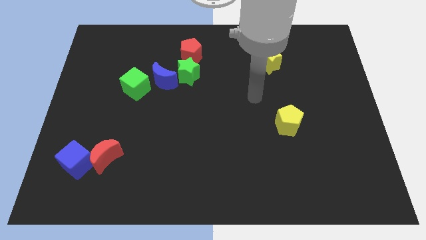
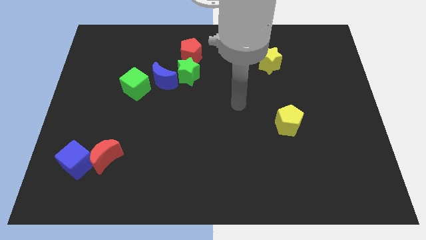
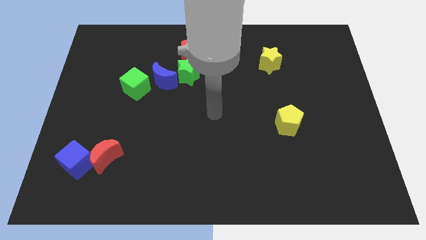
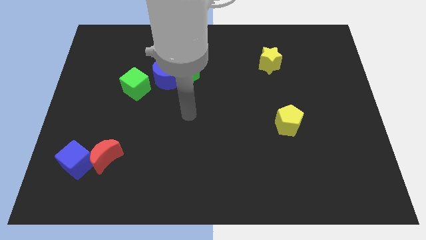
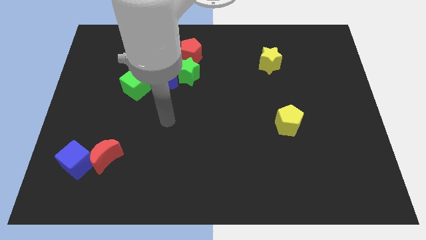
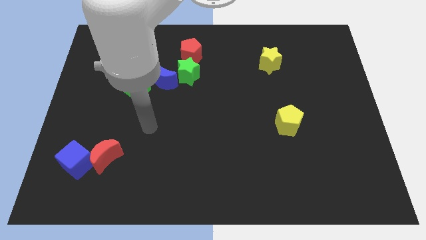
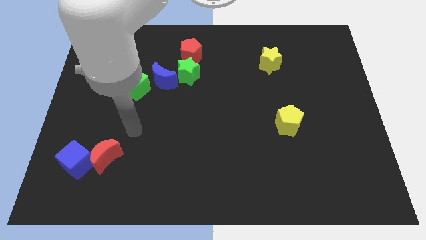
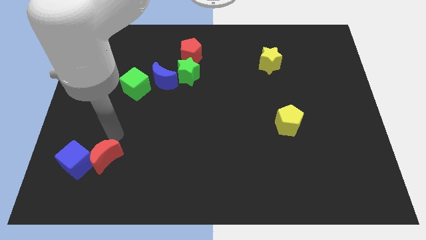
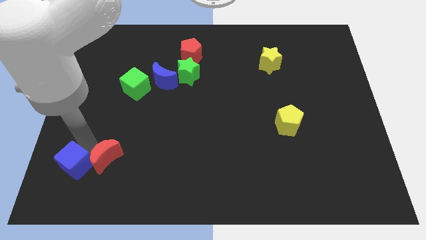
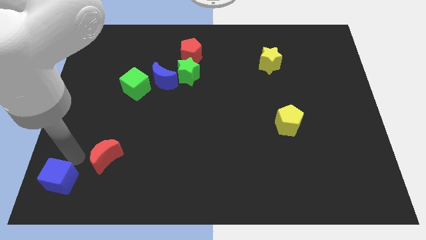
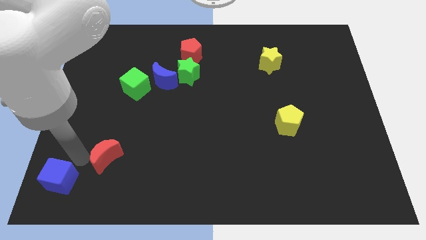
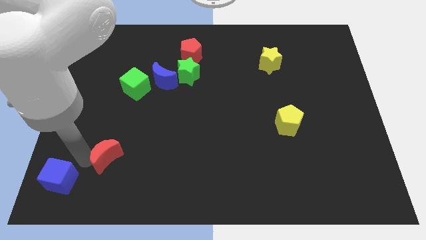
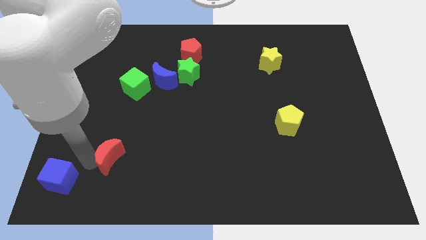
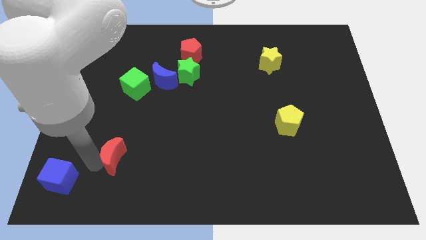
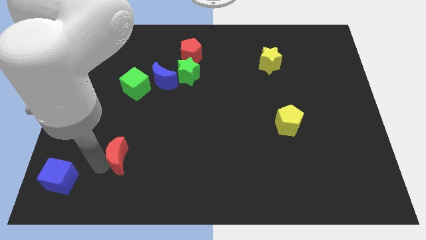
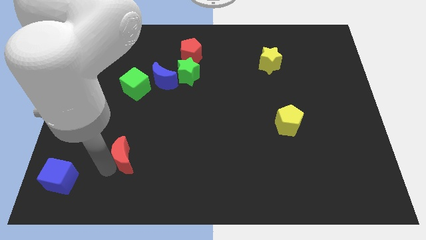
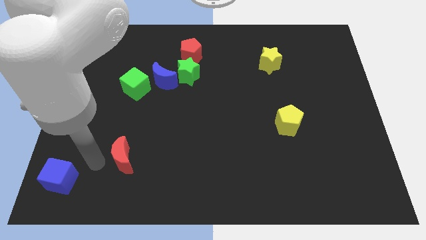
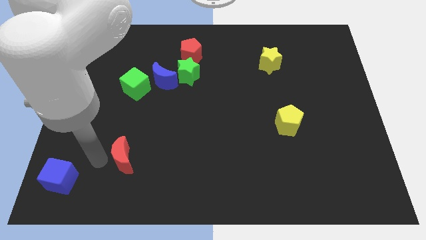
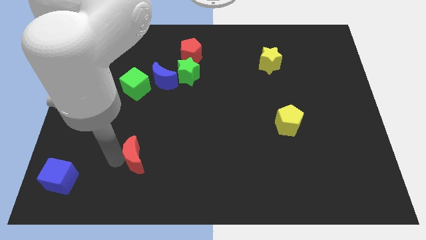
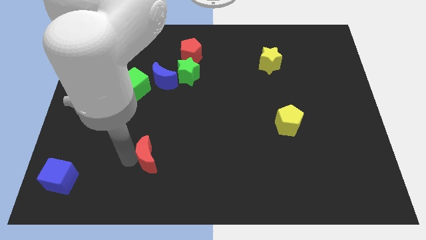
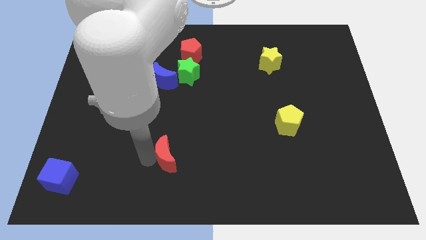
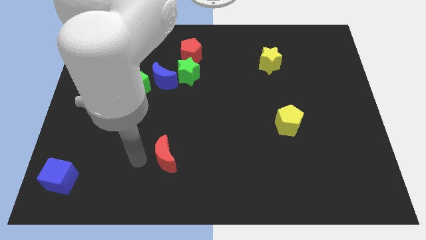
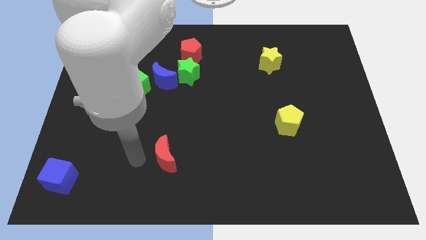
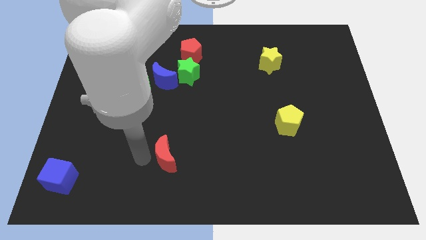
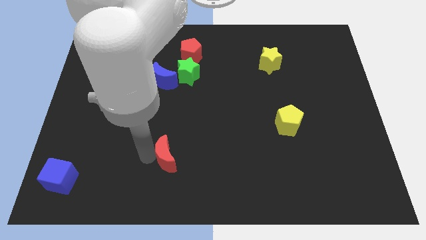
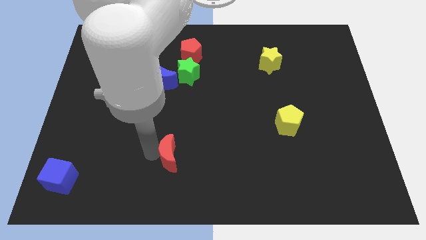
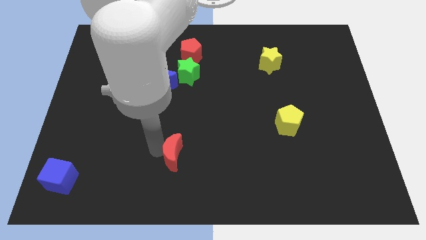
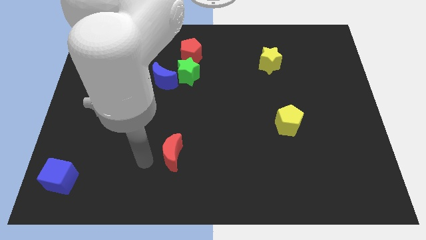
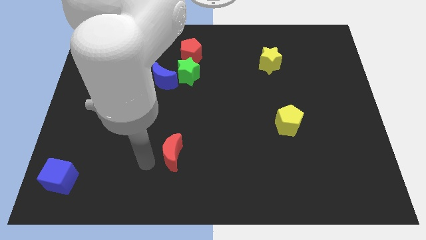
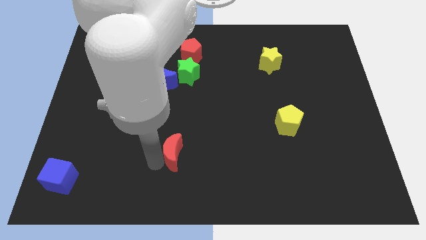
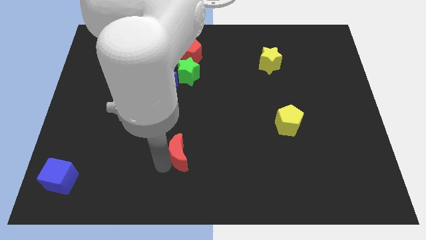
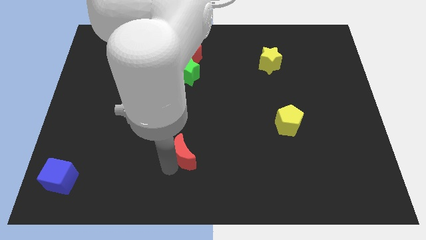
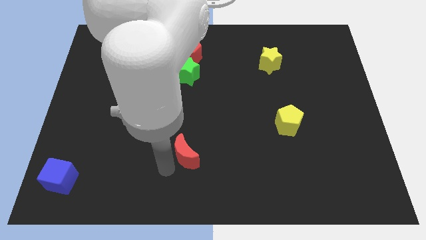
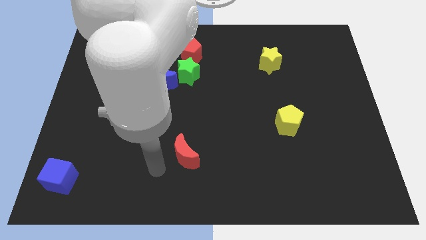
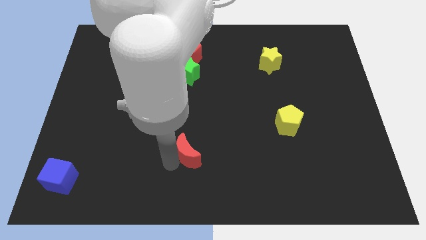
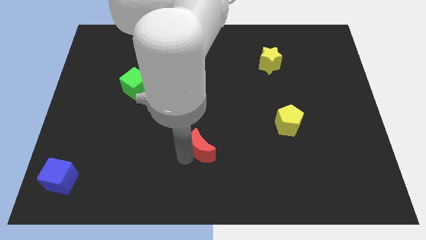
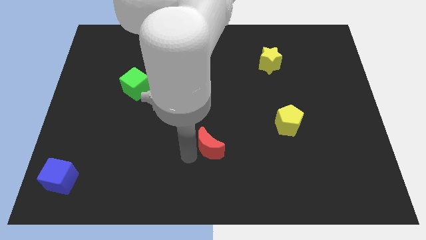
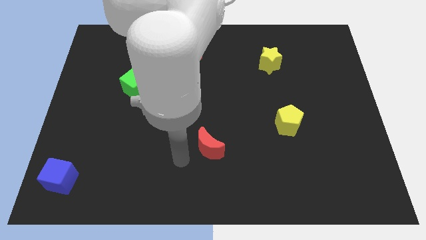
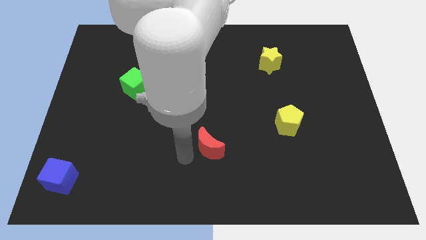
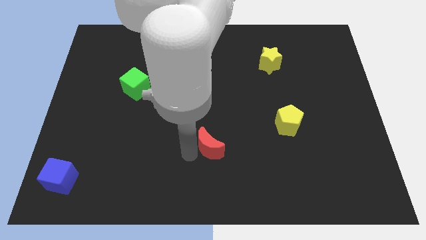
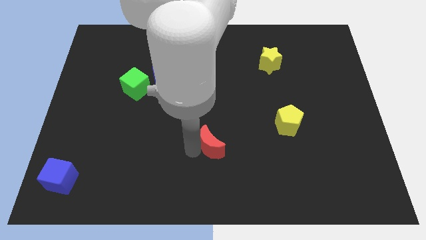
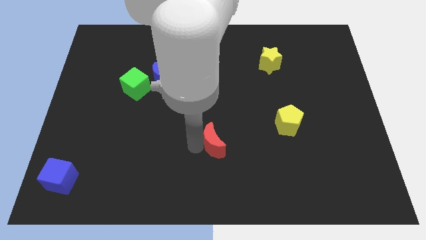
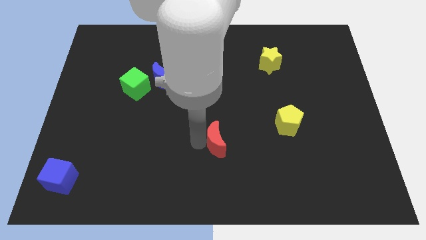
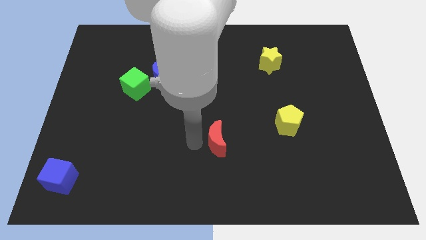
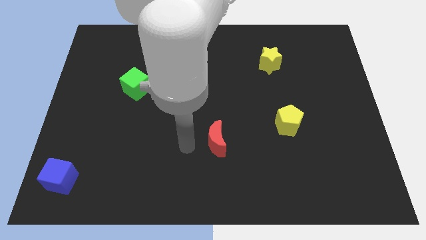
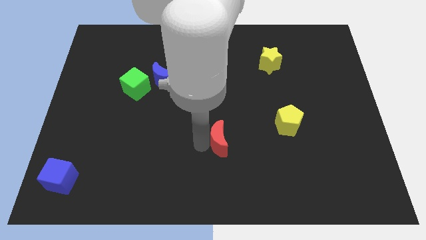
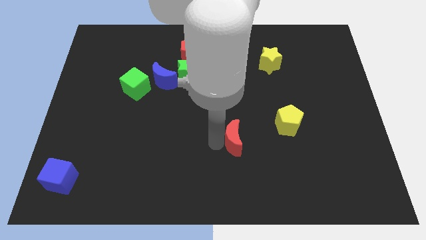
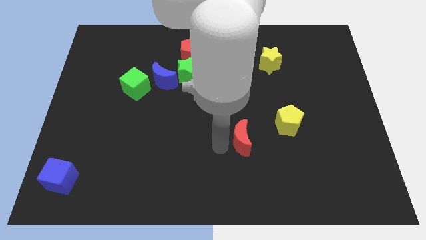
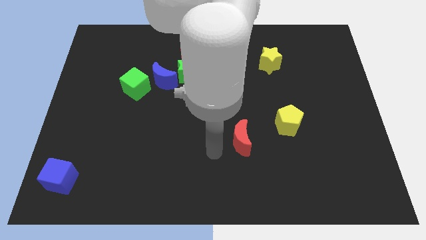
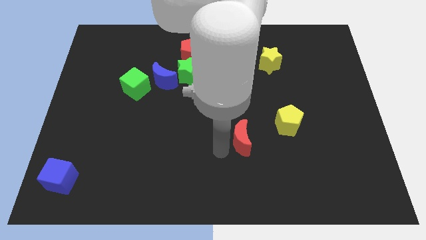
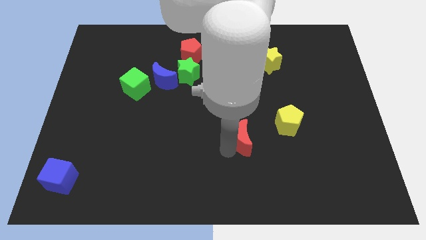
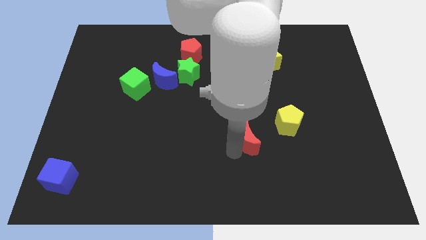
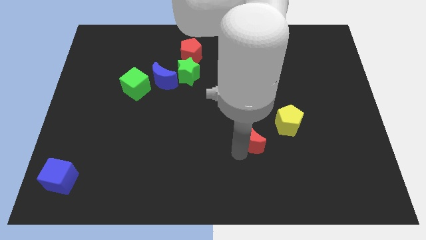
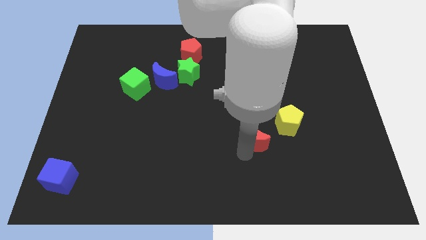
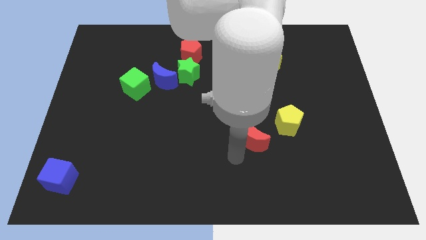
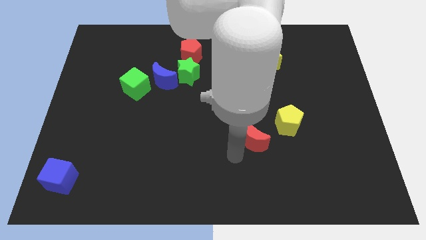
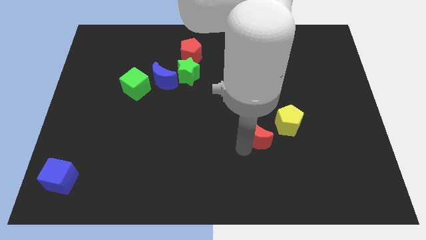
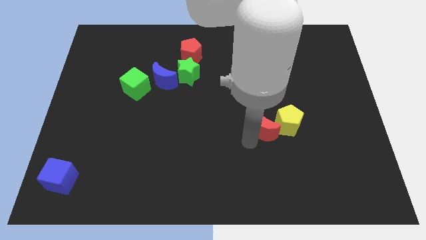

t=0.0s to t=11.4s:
move the red moon close to the yellow pentagon

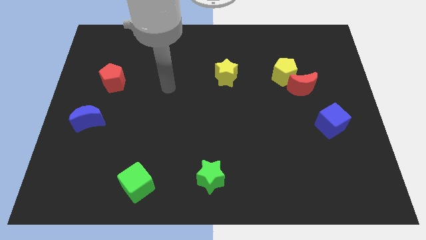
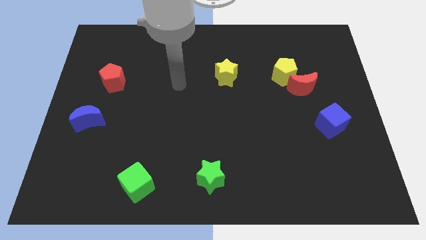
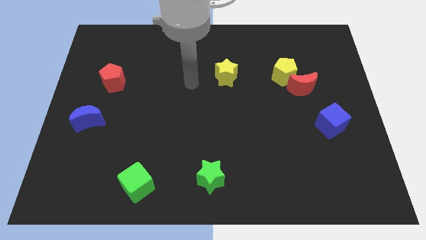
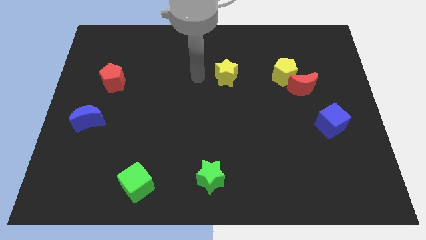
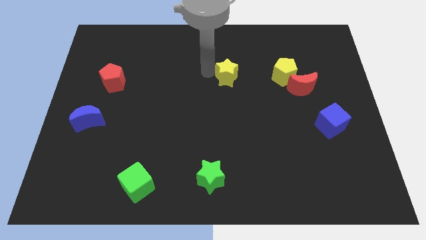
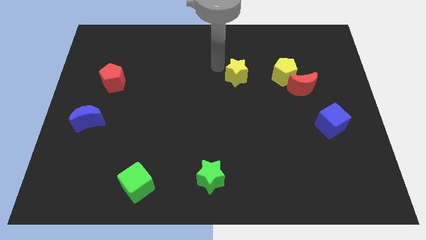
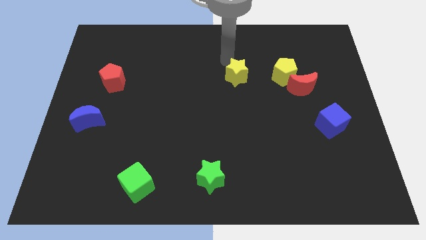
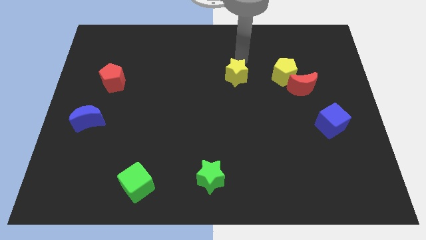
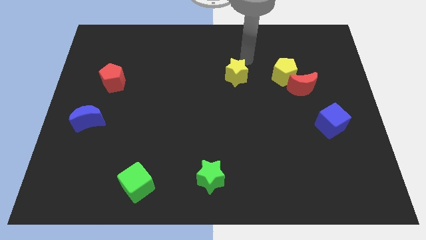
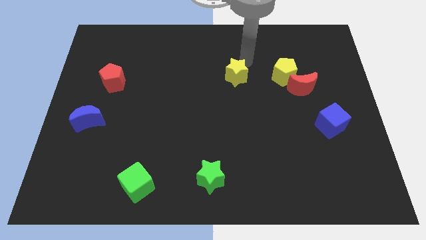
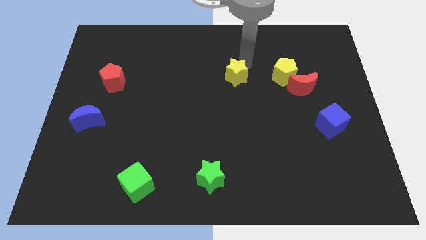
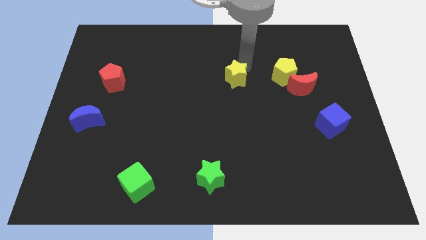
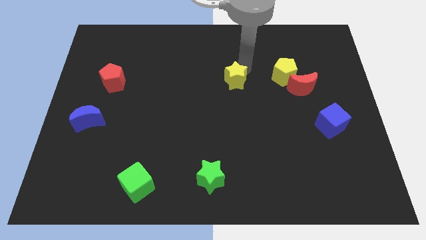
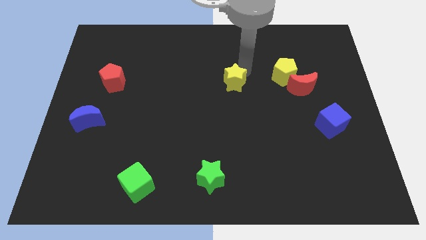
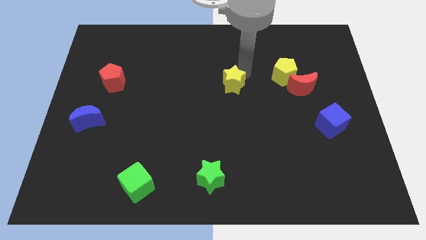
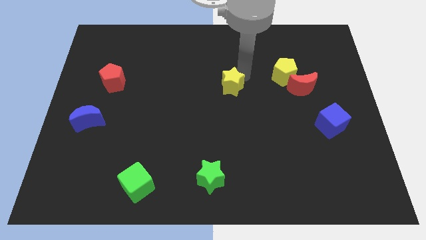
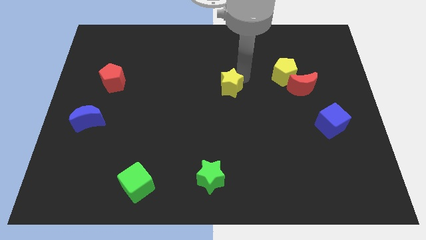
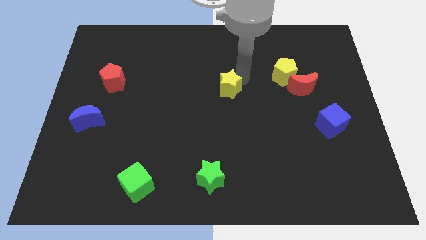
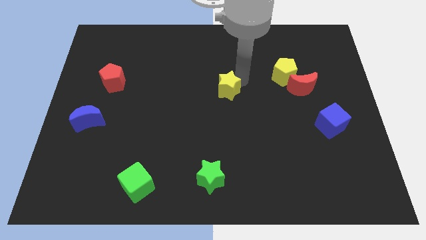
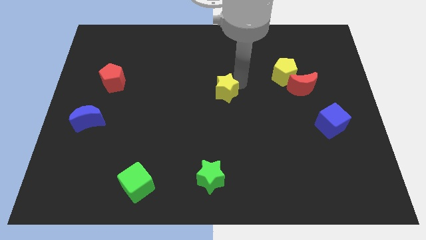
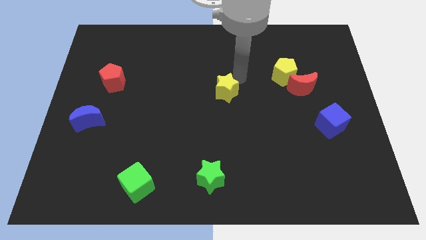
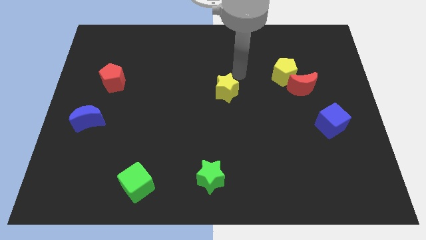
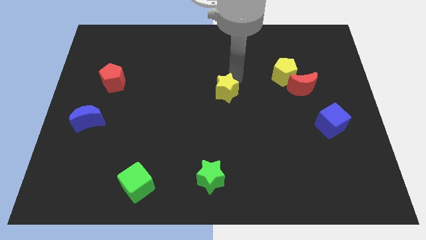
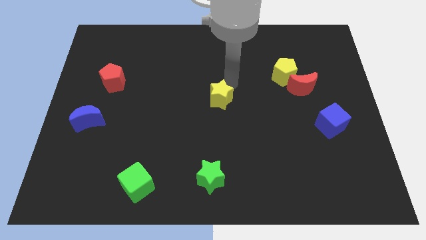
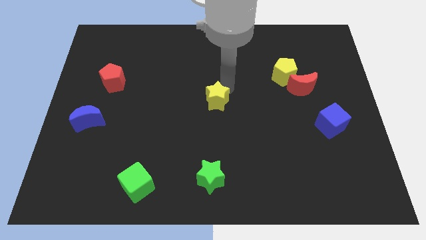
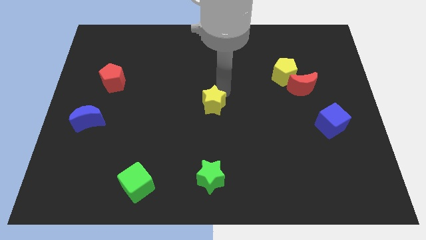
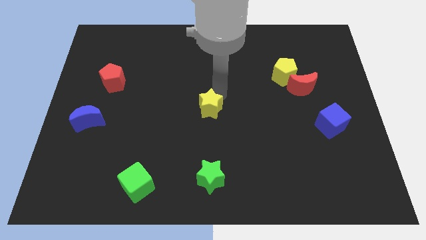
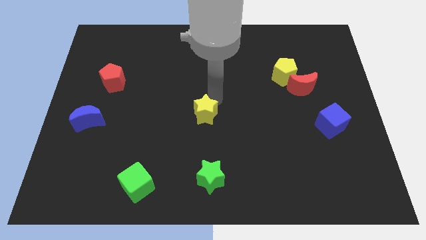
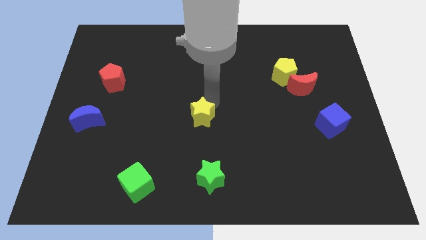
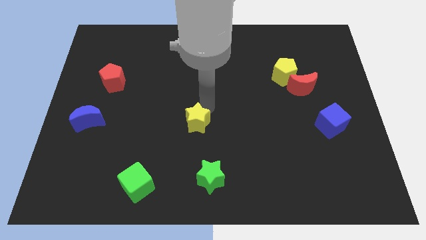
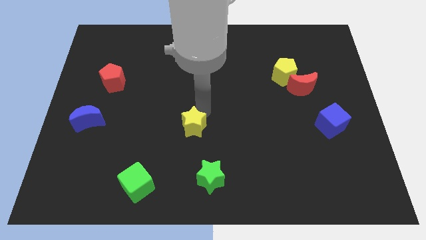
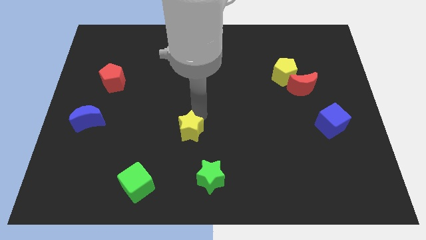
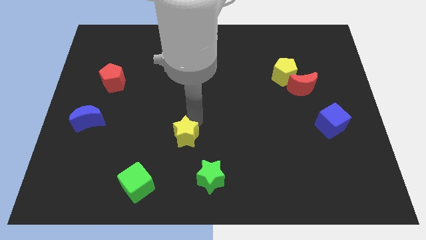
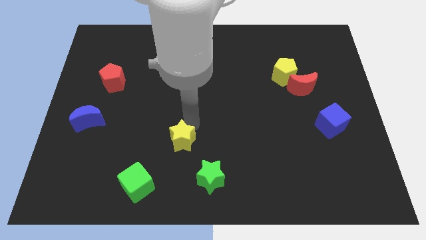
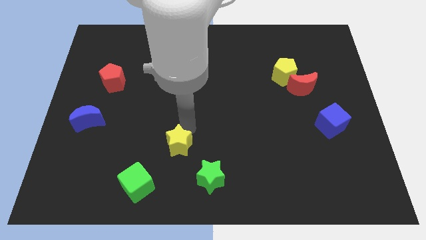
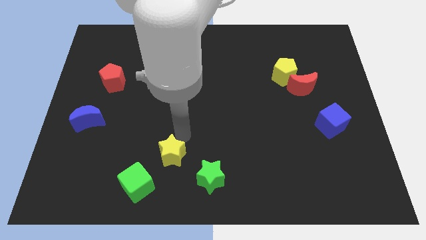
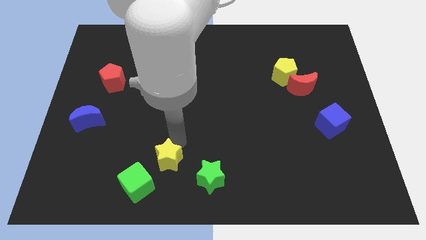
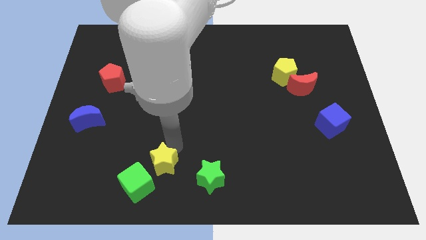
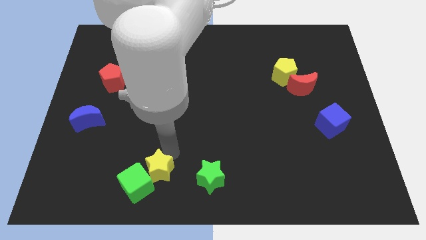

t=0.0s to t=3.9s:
slide the yellow star close to the green cube
